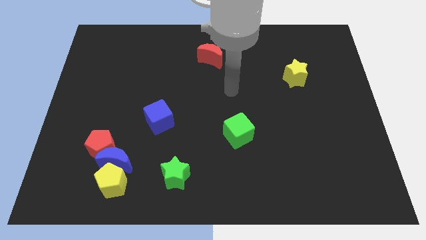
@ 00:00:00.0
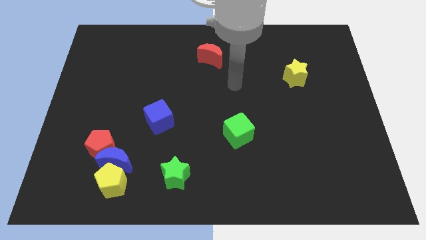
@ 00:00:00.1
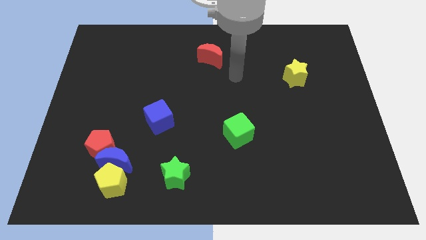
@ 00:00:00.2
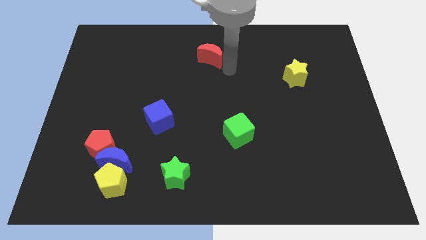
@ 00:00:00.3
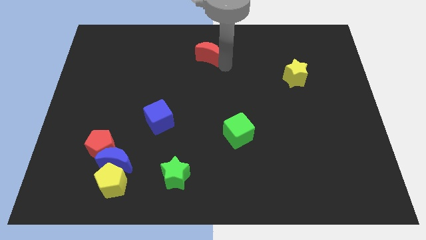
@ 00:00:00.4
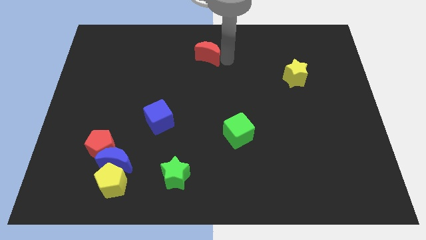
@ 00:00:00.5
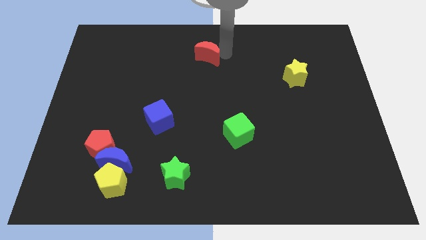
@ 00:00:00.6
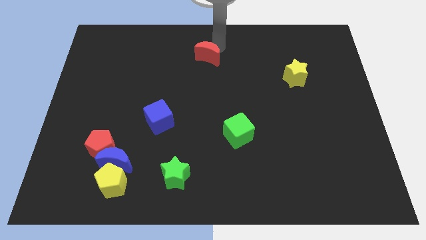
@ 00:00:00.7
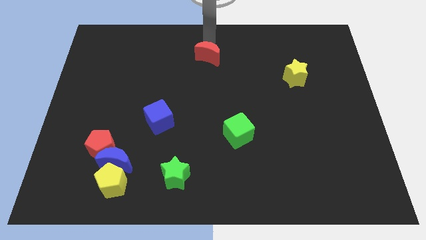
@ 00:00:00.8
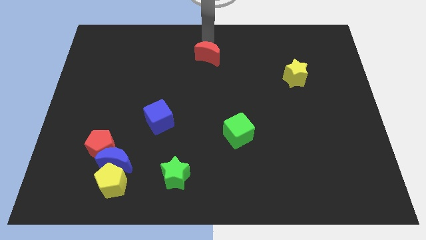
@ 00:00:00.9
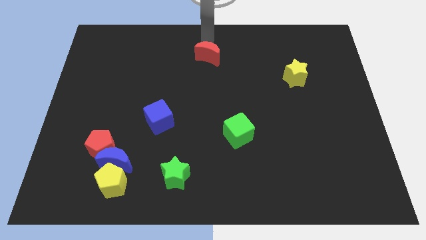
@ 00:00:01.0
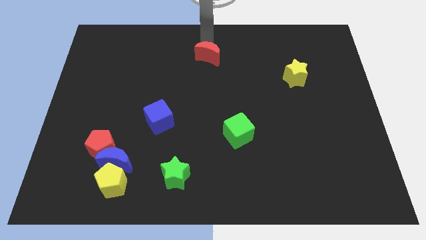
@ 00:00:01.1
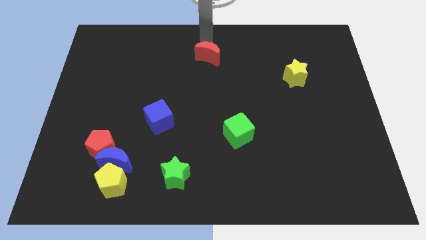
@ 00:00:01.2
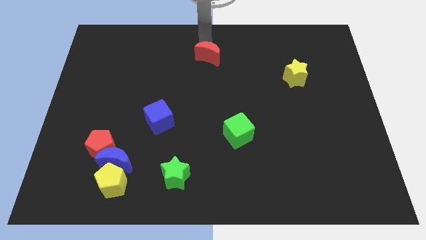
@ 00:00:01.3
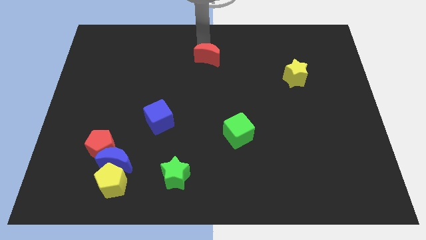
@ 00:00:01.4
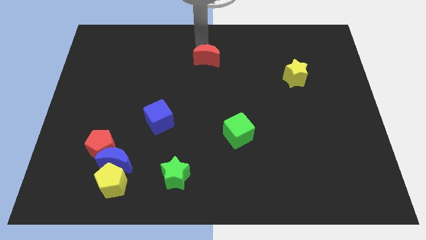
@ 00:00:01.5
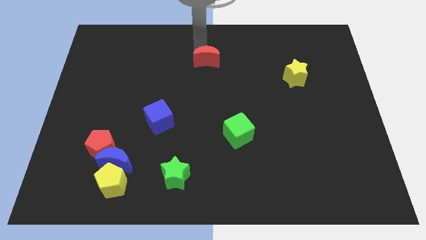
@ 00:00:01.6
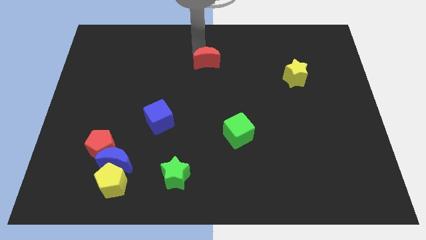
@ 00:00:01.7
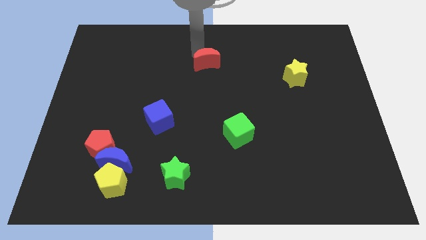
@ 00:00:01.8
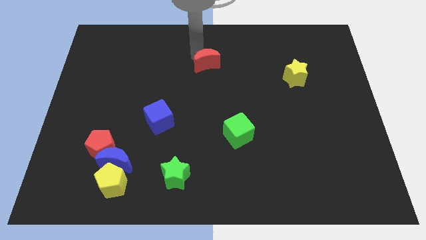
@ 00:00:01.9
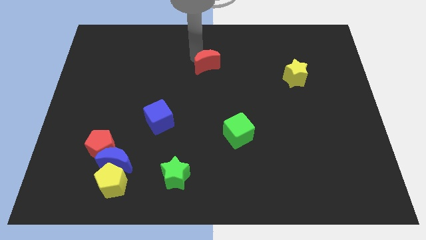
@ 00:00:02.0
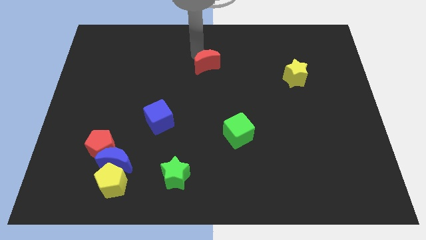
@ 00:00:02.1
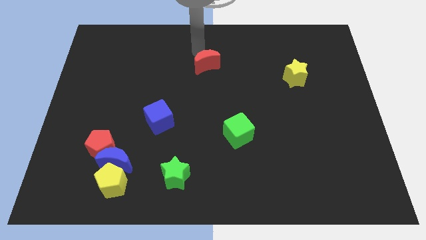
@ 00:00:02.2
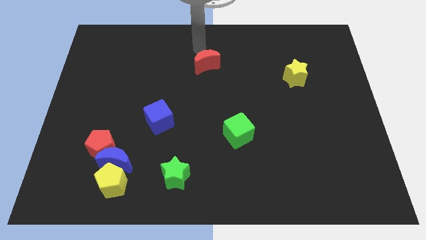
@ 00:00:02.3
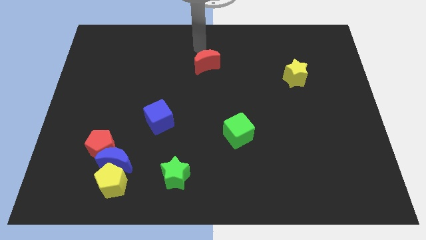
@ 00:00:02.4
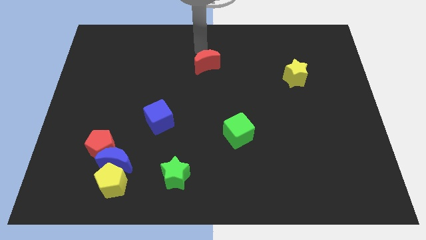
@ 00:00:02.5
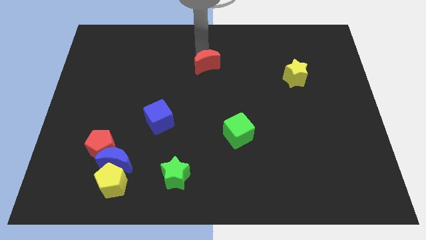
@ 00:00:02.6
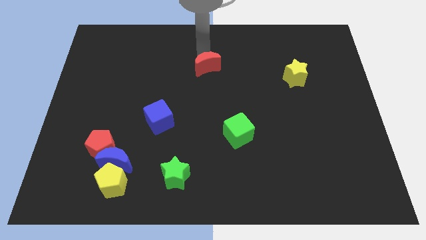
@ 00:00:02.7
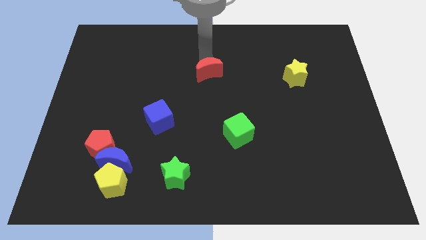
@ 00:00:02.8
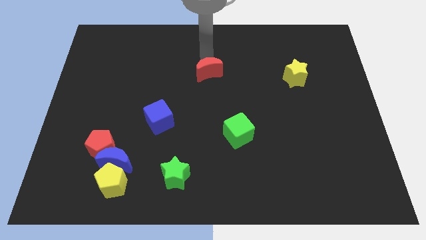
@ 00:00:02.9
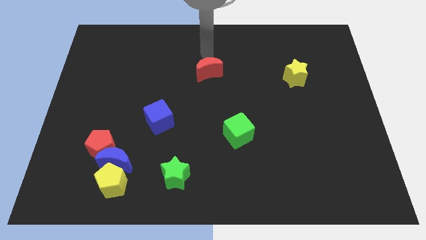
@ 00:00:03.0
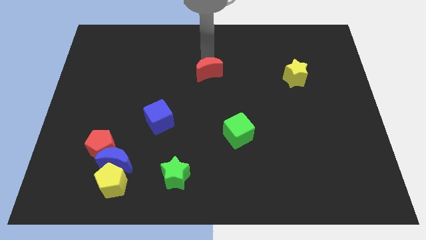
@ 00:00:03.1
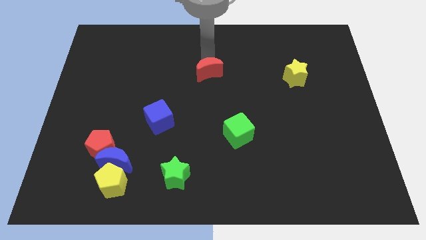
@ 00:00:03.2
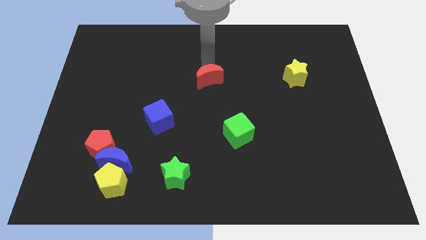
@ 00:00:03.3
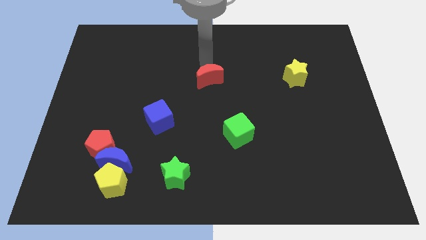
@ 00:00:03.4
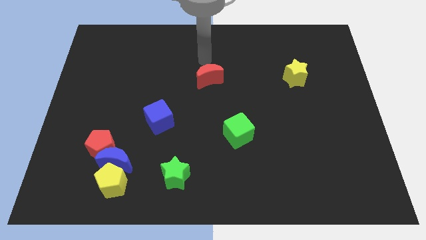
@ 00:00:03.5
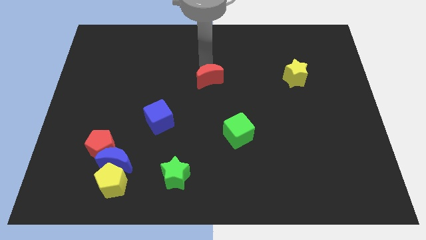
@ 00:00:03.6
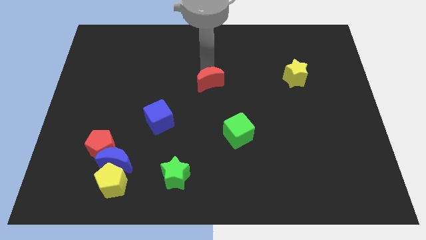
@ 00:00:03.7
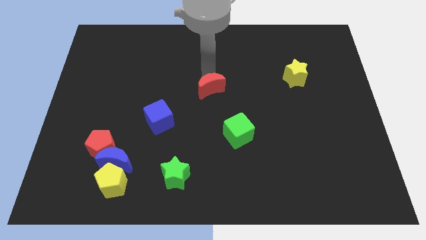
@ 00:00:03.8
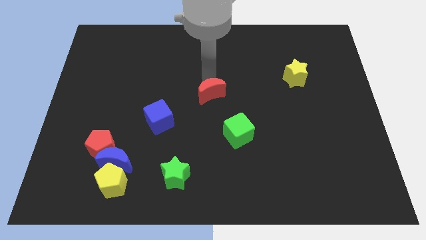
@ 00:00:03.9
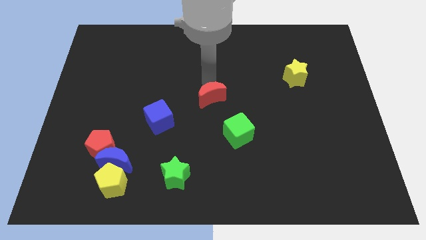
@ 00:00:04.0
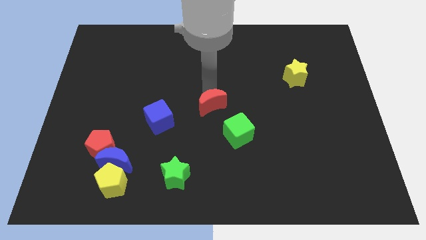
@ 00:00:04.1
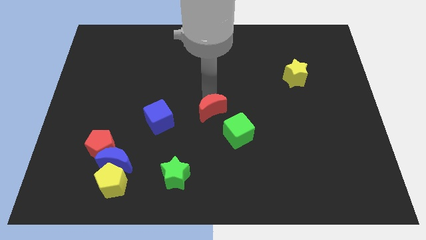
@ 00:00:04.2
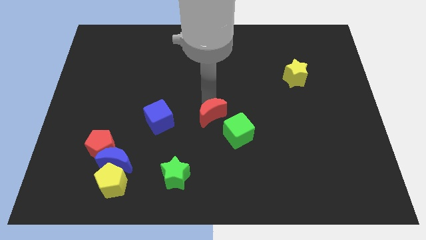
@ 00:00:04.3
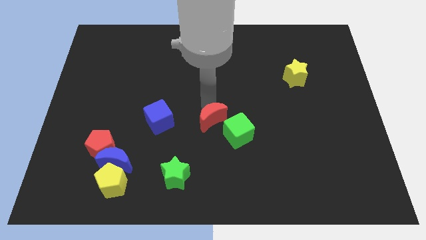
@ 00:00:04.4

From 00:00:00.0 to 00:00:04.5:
move the red moon downwards

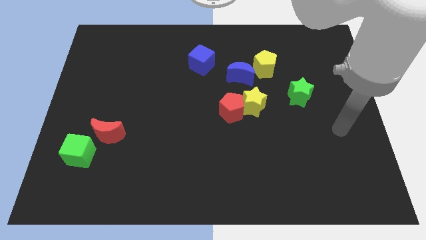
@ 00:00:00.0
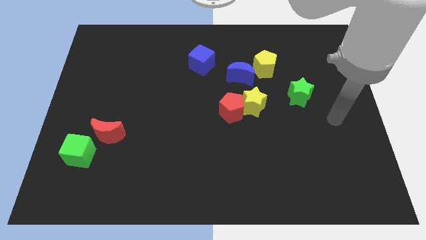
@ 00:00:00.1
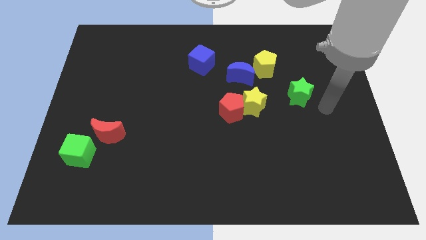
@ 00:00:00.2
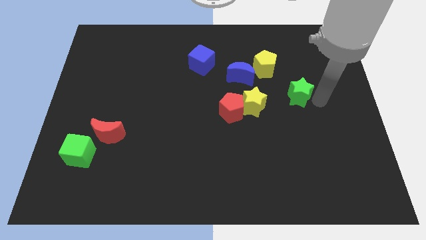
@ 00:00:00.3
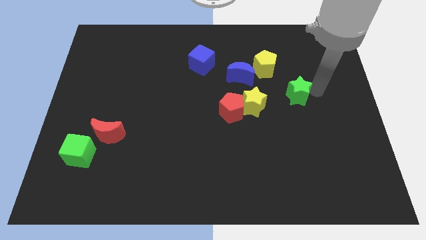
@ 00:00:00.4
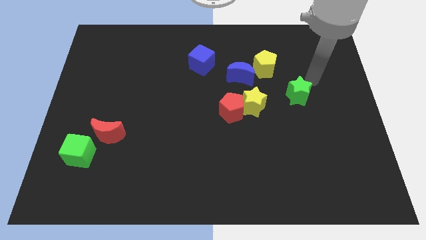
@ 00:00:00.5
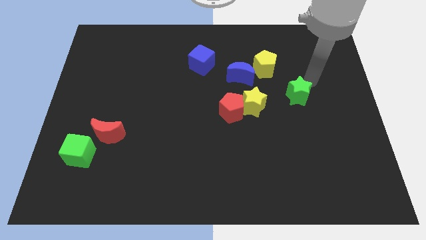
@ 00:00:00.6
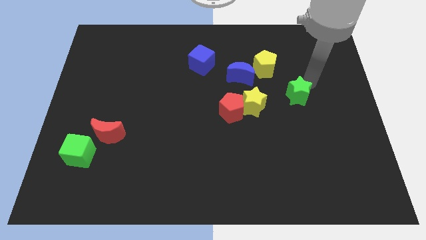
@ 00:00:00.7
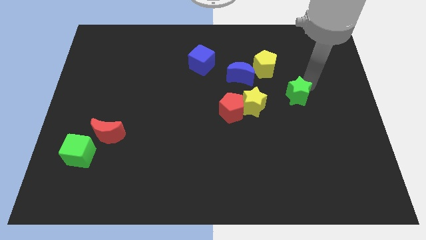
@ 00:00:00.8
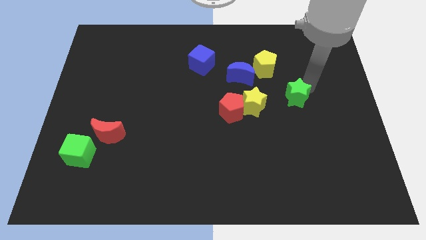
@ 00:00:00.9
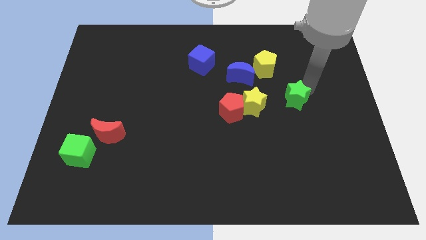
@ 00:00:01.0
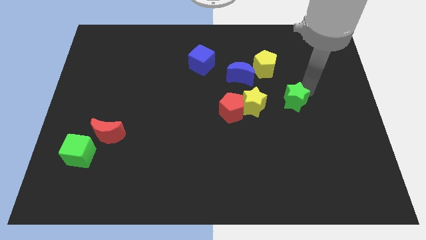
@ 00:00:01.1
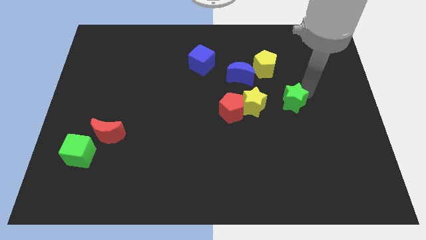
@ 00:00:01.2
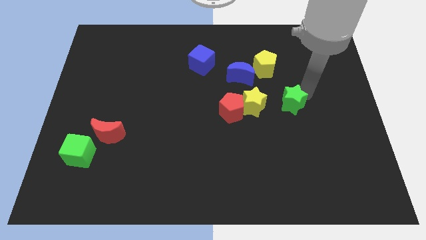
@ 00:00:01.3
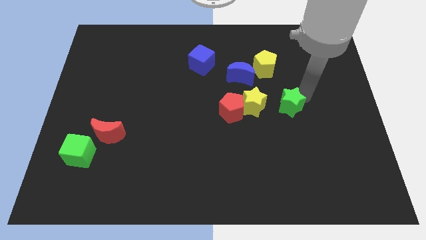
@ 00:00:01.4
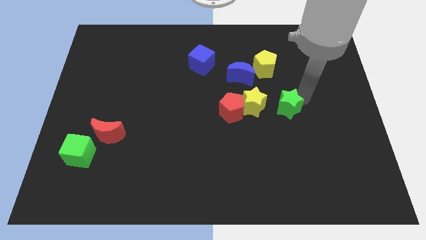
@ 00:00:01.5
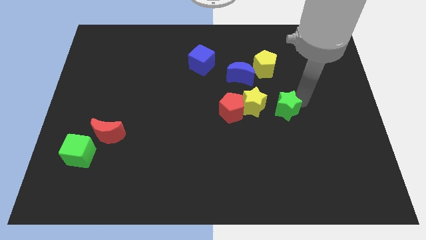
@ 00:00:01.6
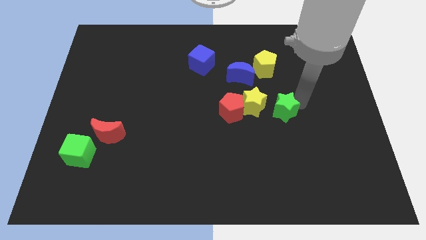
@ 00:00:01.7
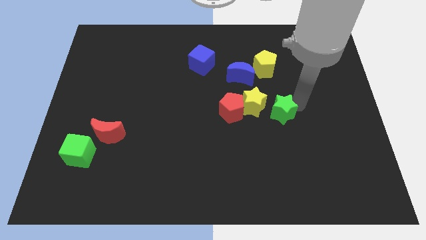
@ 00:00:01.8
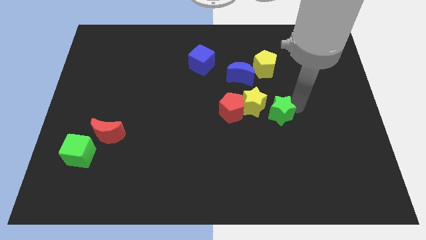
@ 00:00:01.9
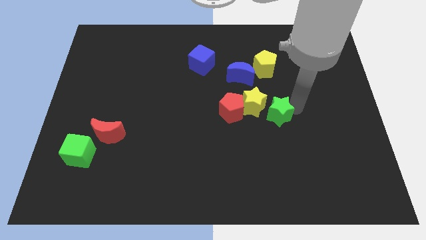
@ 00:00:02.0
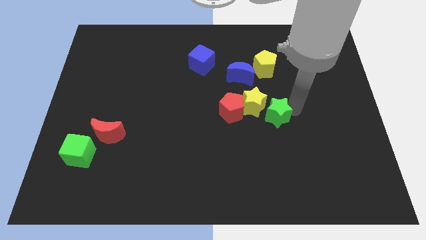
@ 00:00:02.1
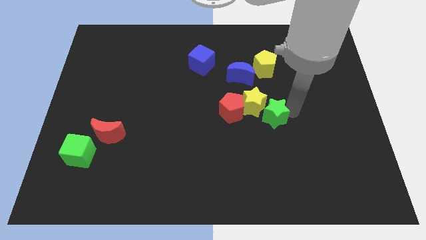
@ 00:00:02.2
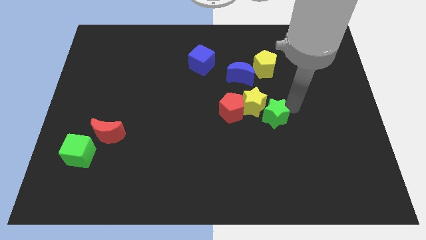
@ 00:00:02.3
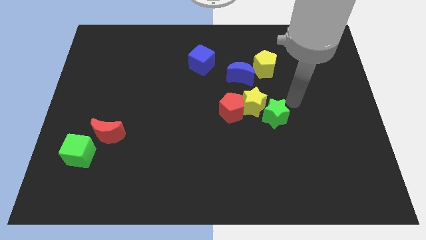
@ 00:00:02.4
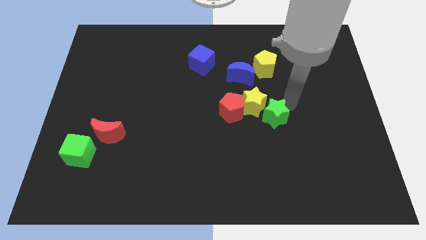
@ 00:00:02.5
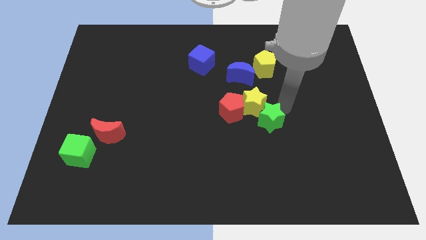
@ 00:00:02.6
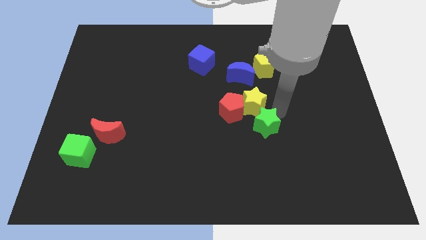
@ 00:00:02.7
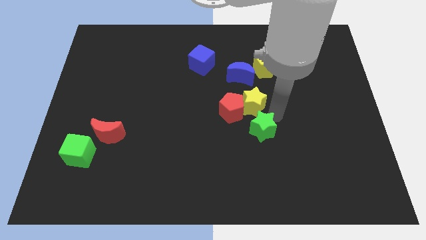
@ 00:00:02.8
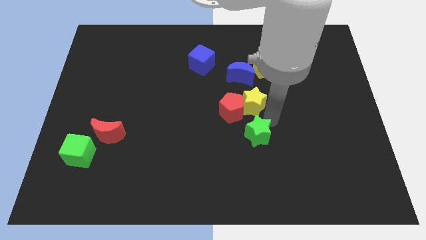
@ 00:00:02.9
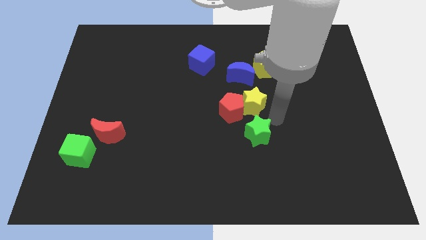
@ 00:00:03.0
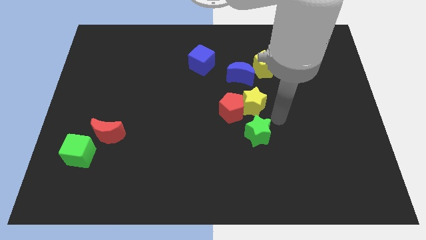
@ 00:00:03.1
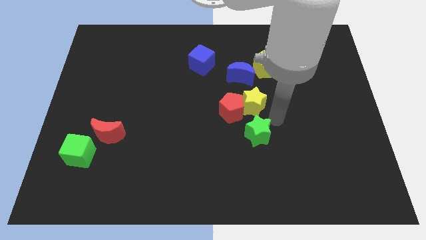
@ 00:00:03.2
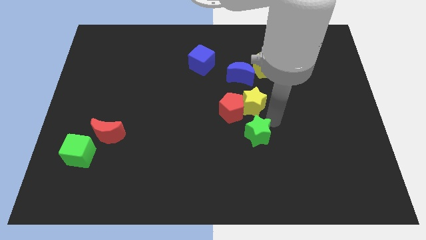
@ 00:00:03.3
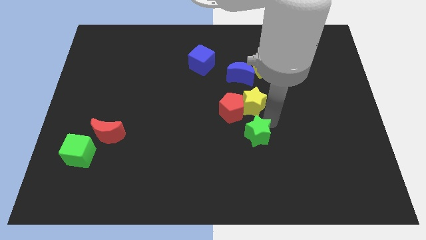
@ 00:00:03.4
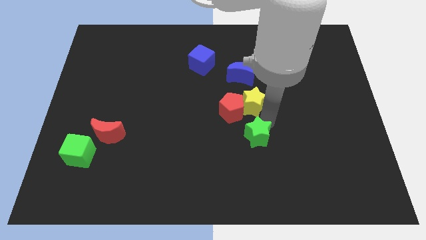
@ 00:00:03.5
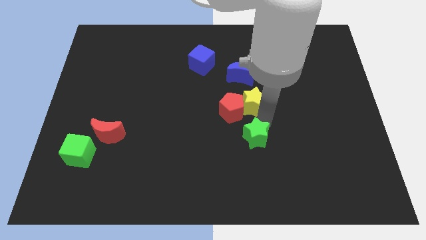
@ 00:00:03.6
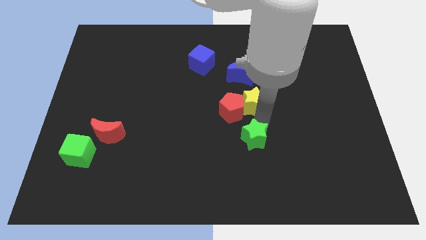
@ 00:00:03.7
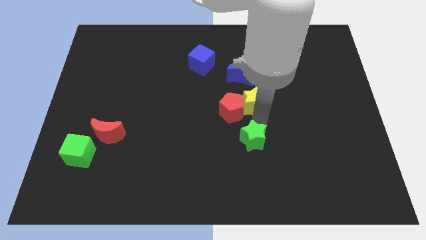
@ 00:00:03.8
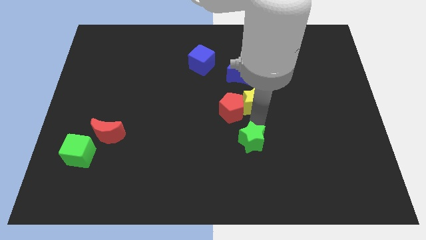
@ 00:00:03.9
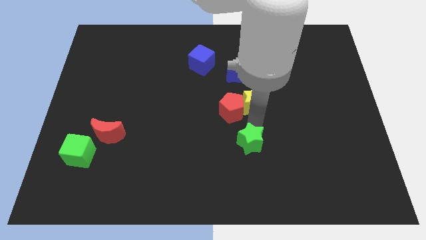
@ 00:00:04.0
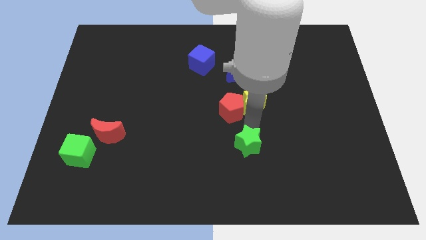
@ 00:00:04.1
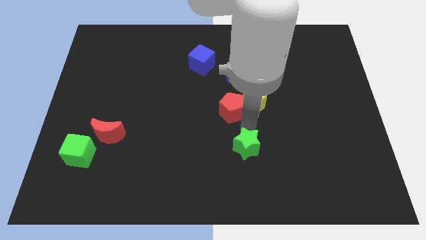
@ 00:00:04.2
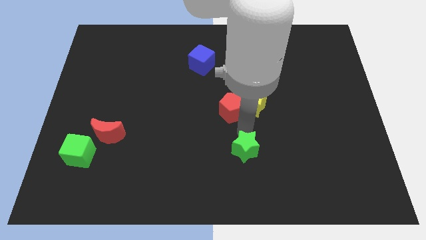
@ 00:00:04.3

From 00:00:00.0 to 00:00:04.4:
push the green star diagonally down and left
